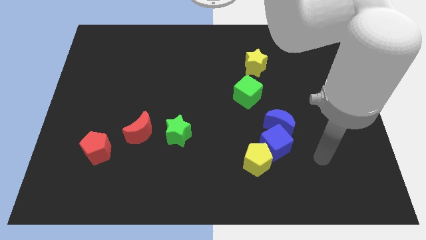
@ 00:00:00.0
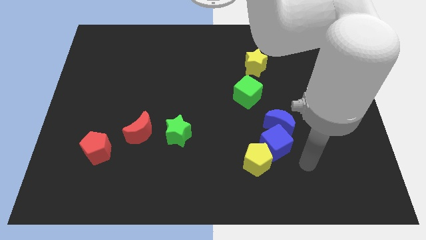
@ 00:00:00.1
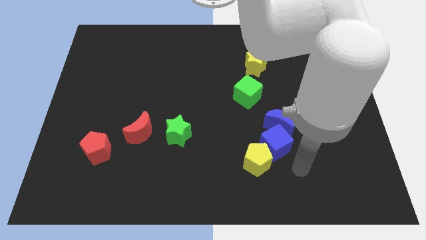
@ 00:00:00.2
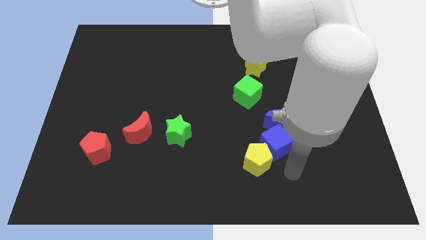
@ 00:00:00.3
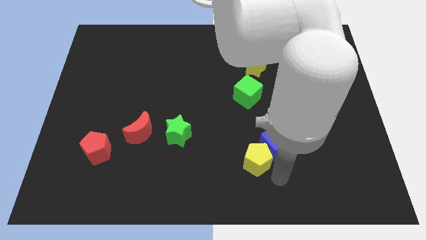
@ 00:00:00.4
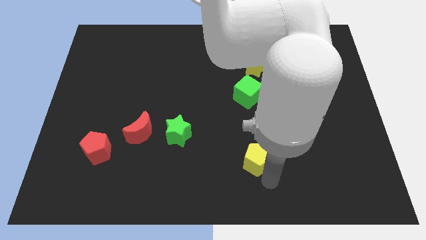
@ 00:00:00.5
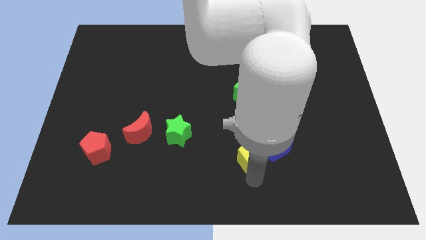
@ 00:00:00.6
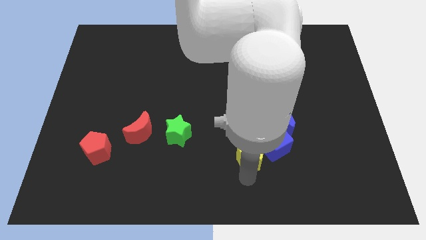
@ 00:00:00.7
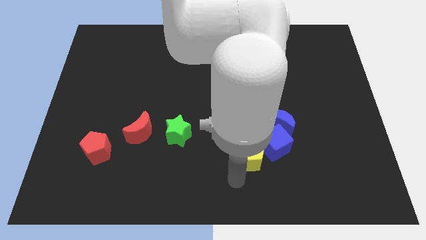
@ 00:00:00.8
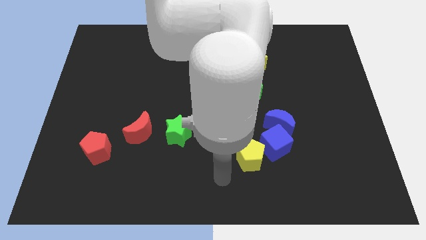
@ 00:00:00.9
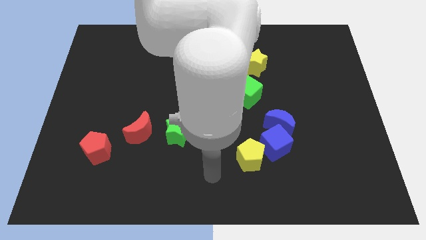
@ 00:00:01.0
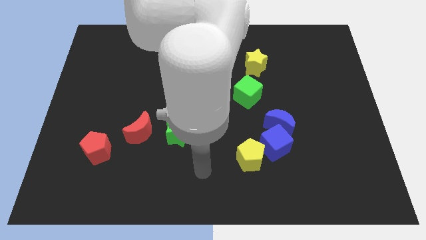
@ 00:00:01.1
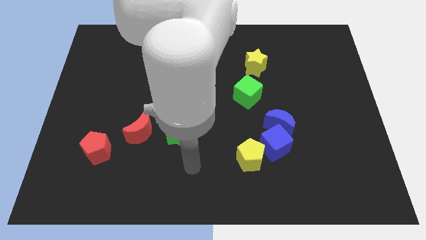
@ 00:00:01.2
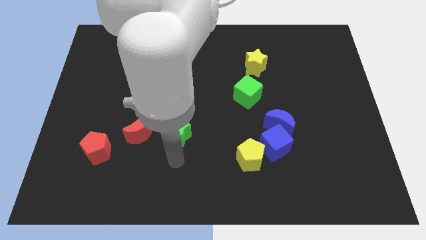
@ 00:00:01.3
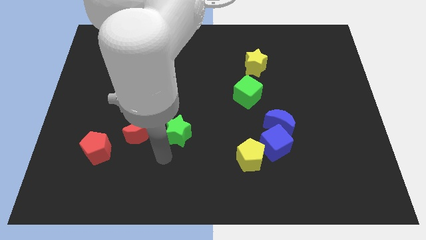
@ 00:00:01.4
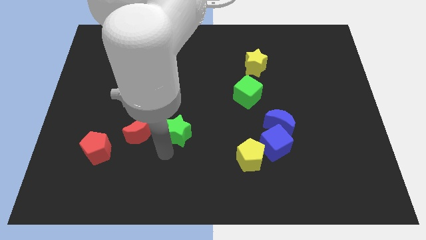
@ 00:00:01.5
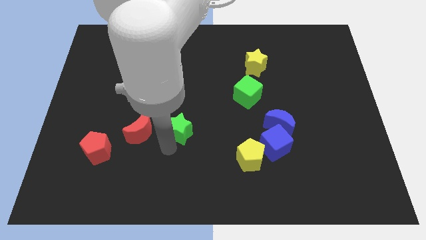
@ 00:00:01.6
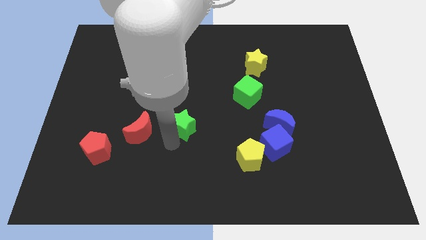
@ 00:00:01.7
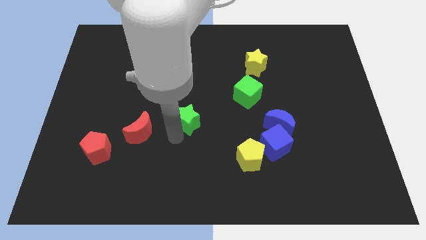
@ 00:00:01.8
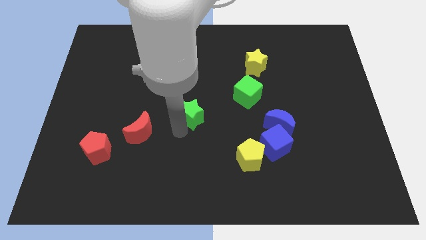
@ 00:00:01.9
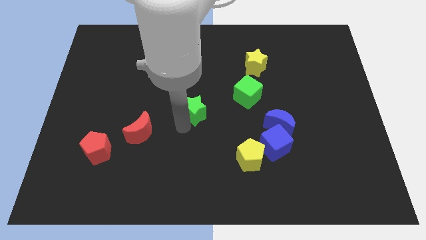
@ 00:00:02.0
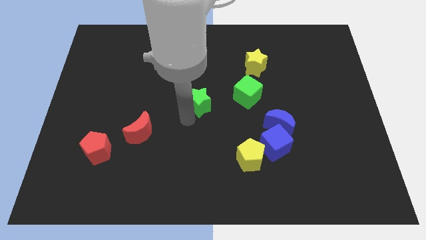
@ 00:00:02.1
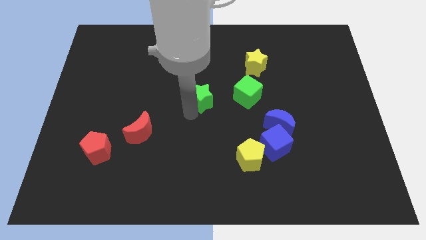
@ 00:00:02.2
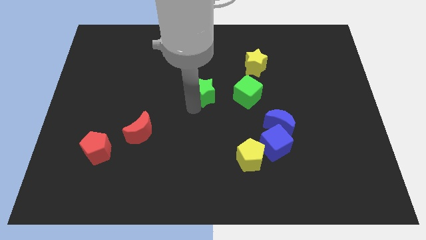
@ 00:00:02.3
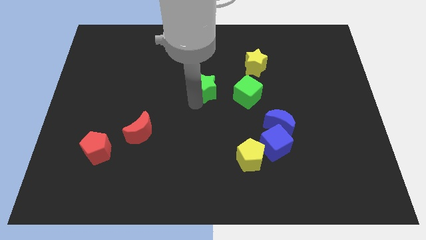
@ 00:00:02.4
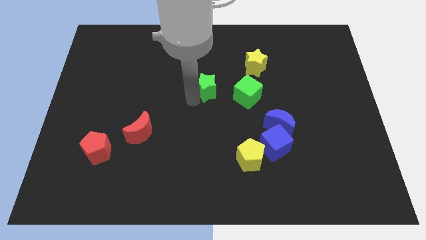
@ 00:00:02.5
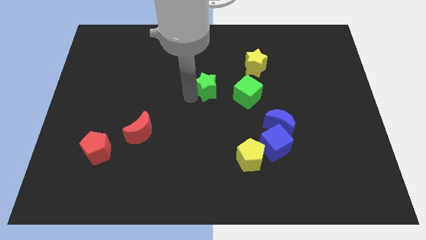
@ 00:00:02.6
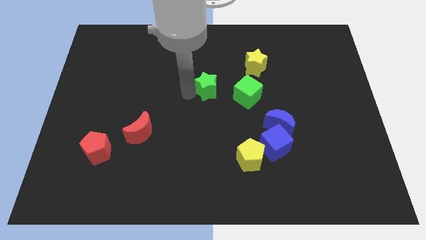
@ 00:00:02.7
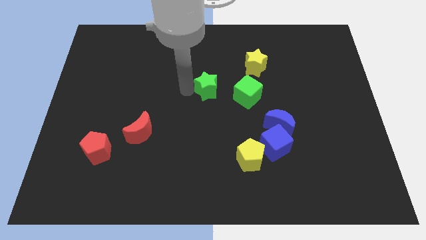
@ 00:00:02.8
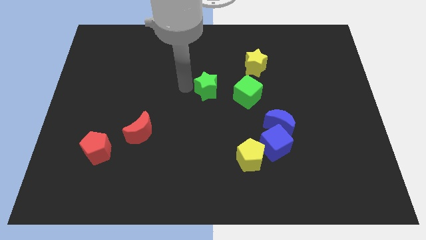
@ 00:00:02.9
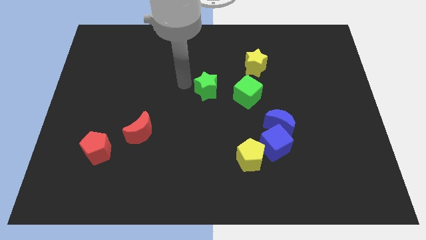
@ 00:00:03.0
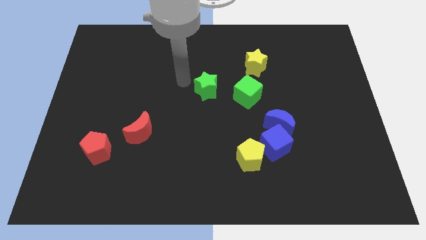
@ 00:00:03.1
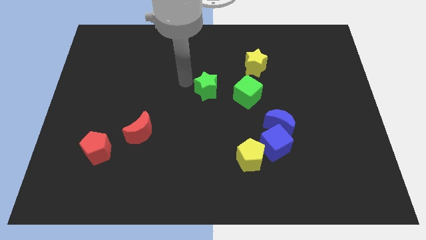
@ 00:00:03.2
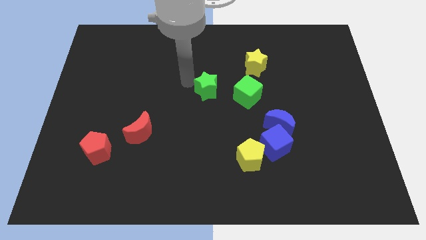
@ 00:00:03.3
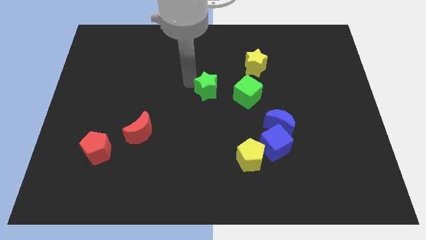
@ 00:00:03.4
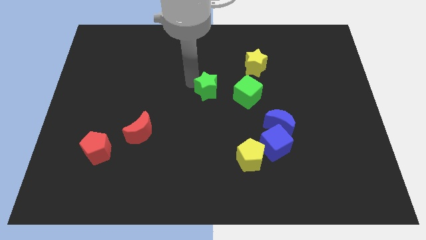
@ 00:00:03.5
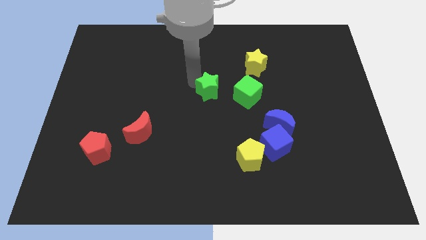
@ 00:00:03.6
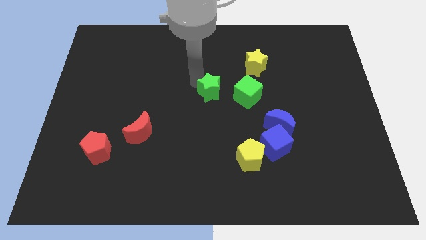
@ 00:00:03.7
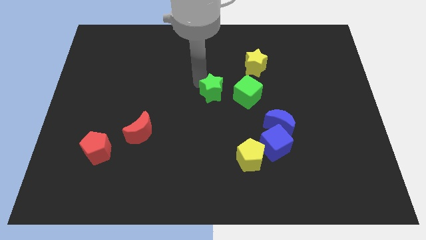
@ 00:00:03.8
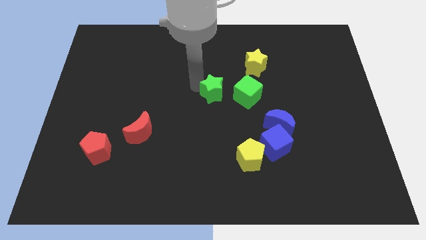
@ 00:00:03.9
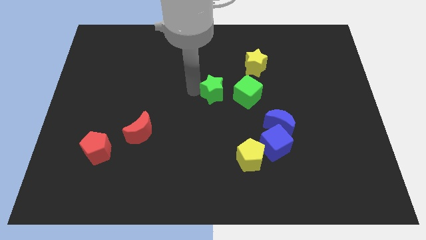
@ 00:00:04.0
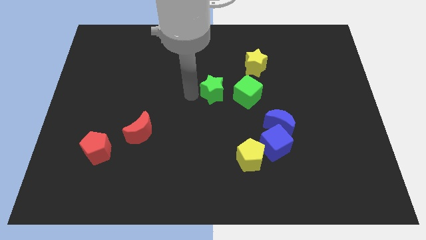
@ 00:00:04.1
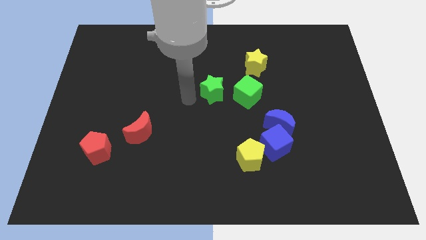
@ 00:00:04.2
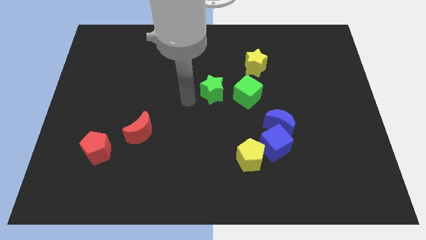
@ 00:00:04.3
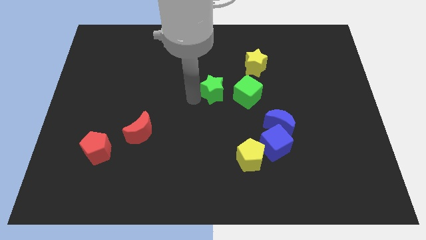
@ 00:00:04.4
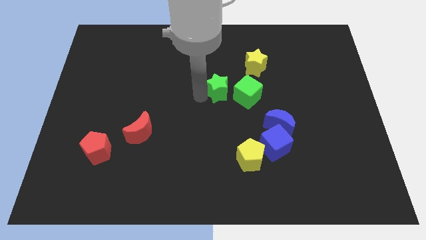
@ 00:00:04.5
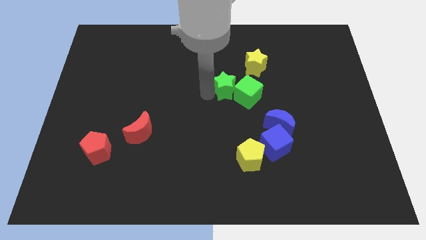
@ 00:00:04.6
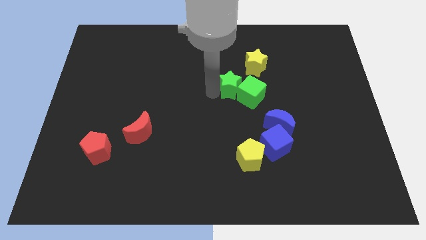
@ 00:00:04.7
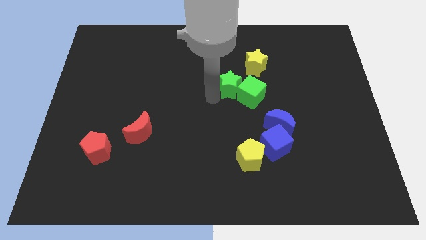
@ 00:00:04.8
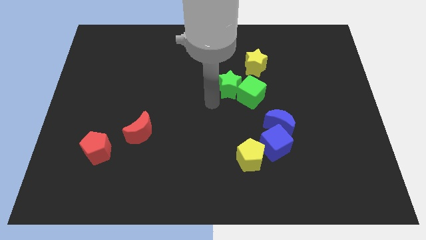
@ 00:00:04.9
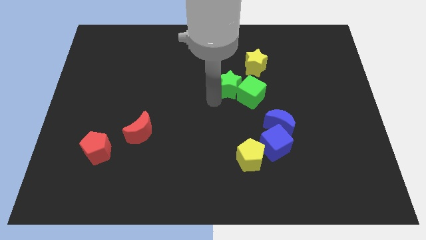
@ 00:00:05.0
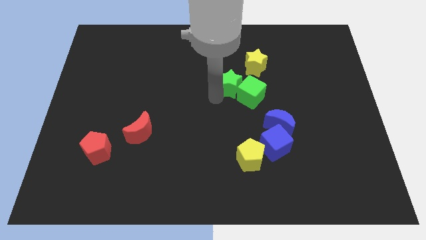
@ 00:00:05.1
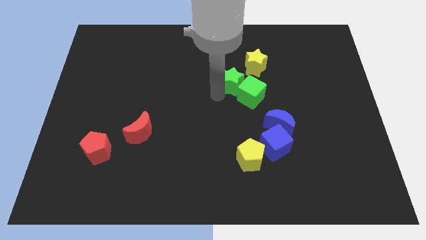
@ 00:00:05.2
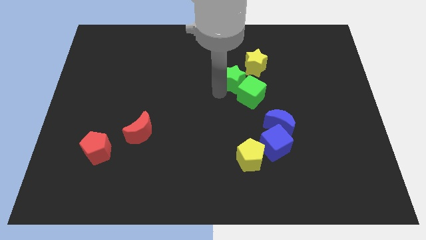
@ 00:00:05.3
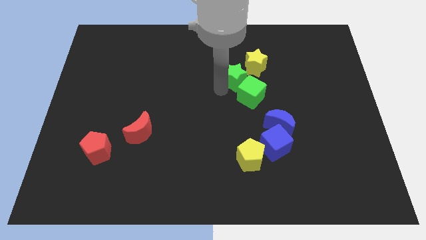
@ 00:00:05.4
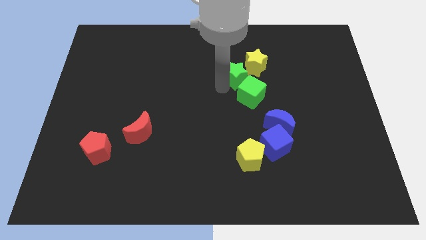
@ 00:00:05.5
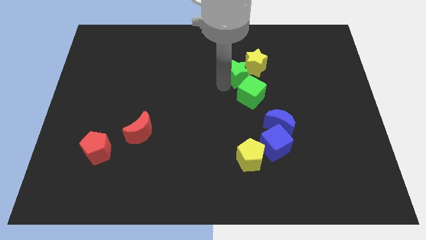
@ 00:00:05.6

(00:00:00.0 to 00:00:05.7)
push the green star to the yellow star

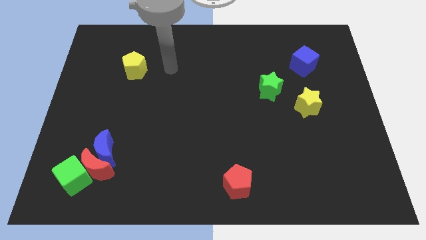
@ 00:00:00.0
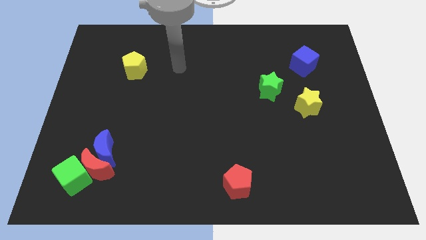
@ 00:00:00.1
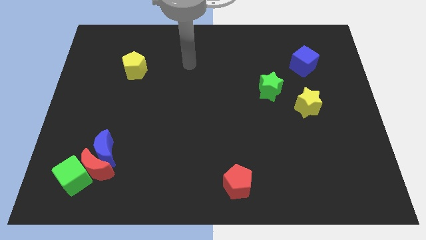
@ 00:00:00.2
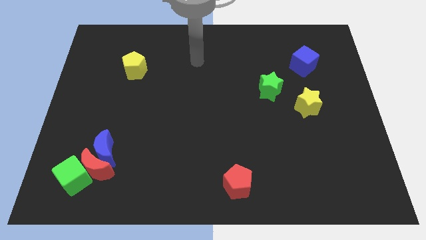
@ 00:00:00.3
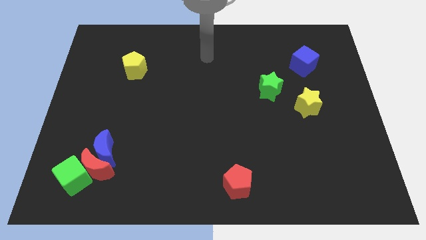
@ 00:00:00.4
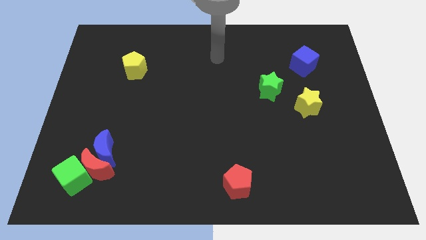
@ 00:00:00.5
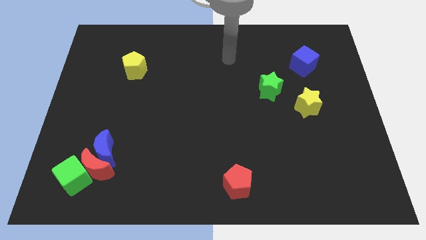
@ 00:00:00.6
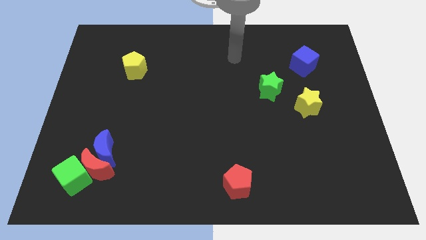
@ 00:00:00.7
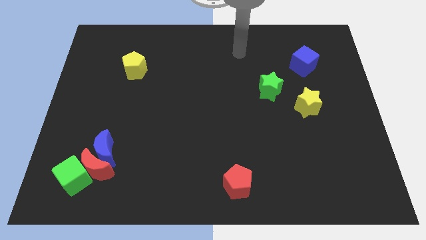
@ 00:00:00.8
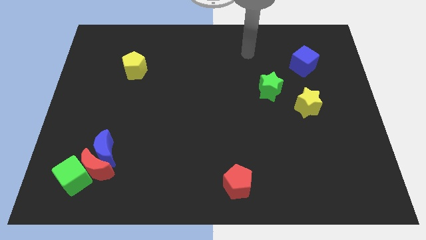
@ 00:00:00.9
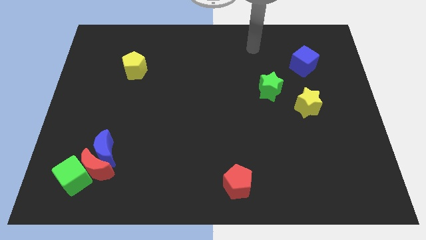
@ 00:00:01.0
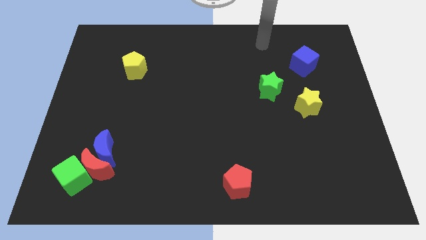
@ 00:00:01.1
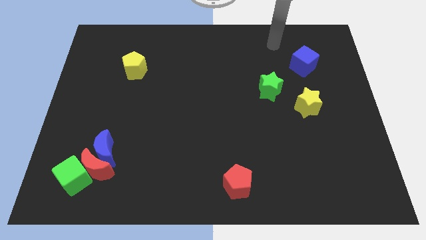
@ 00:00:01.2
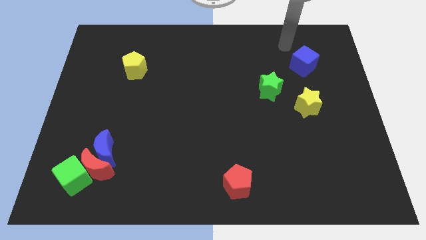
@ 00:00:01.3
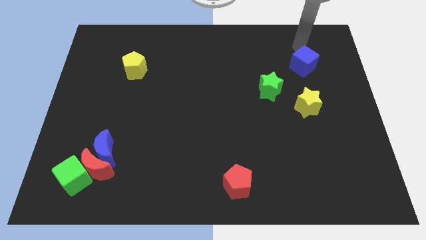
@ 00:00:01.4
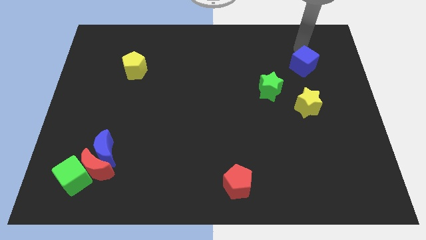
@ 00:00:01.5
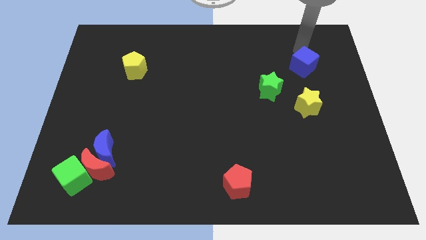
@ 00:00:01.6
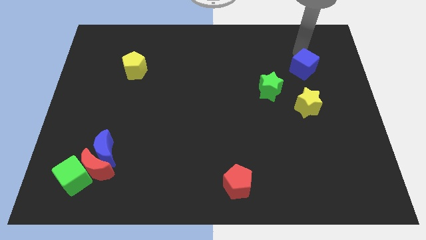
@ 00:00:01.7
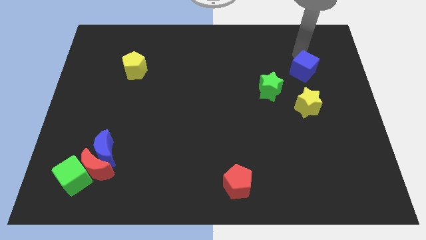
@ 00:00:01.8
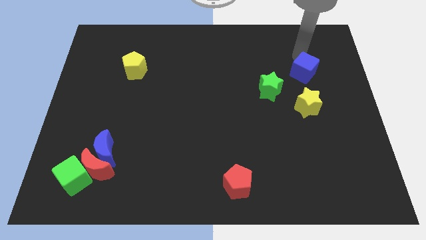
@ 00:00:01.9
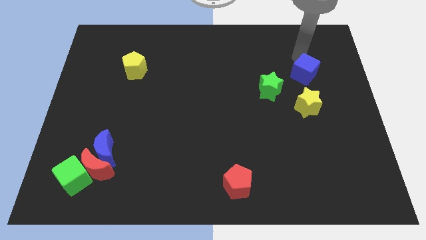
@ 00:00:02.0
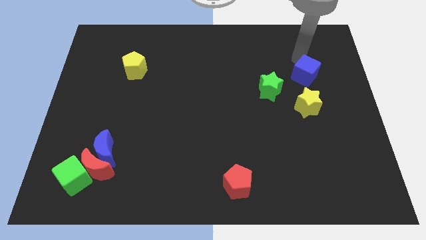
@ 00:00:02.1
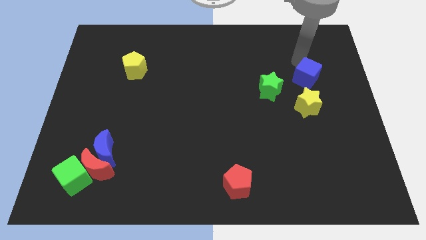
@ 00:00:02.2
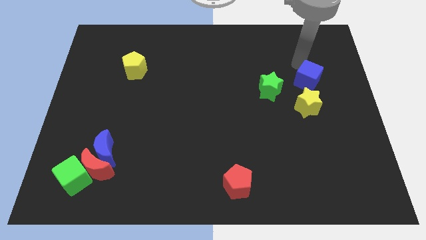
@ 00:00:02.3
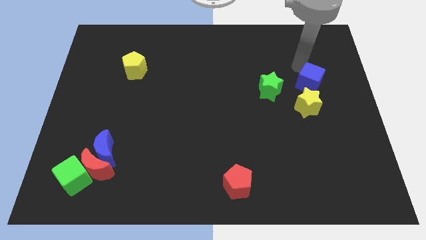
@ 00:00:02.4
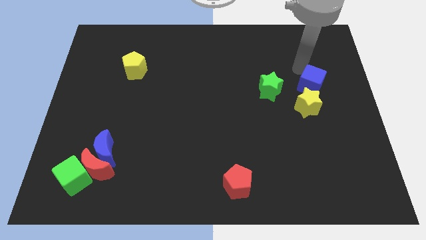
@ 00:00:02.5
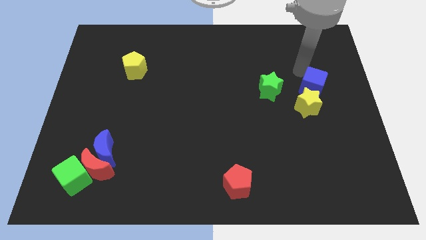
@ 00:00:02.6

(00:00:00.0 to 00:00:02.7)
push the blue cube close to the yellow star
